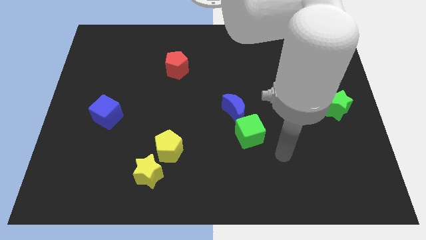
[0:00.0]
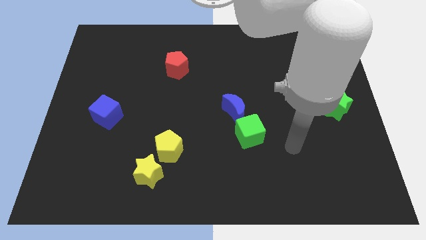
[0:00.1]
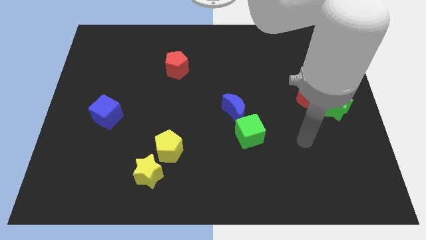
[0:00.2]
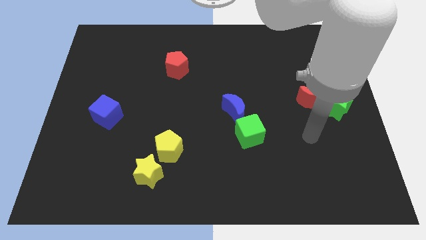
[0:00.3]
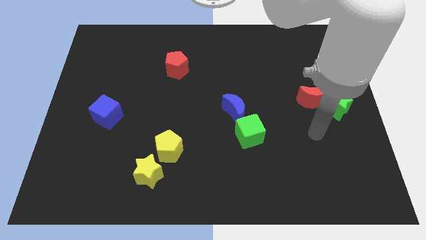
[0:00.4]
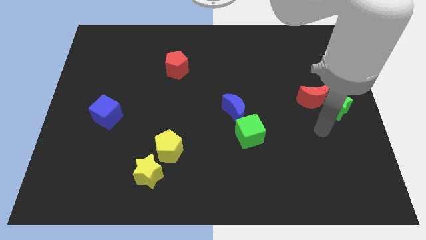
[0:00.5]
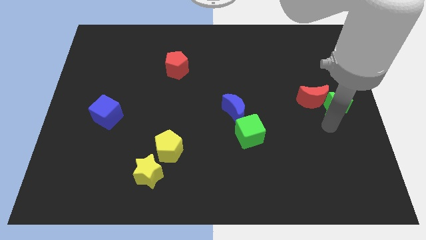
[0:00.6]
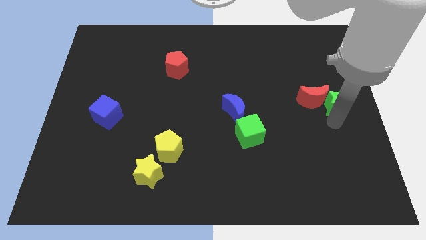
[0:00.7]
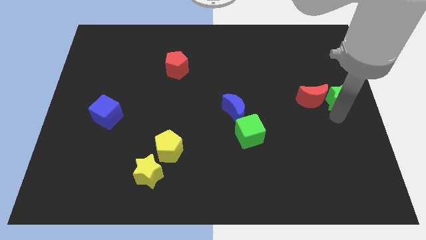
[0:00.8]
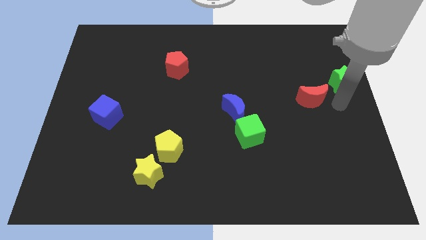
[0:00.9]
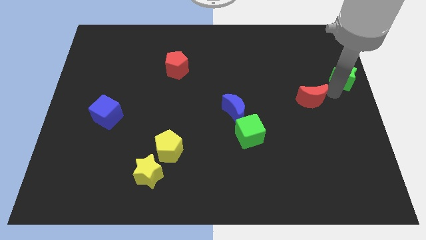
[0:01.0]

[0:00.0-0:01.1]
pull the red moon apart from the green star

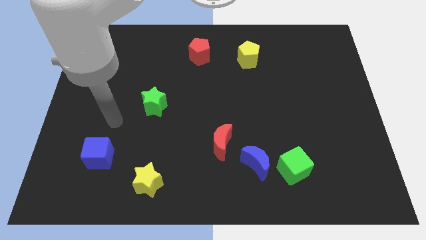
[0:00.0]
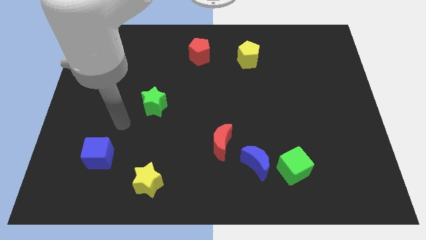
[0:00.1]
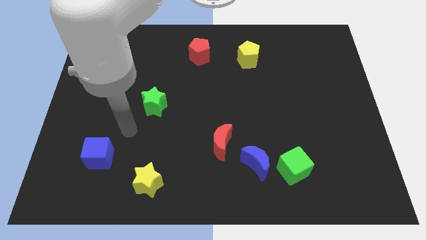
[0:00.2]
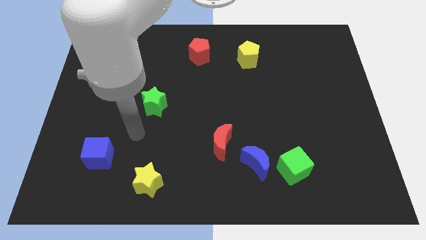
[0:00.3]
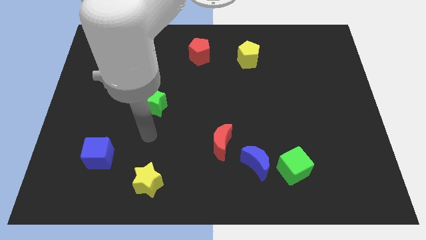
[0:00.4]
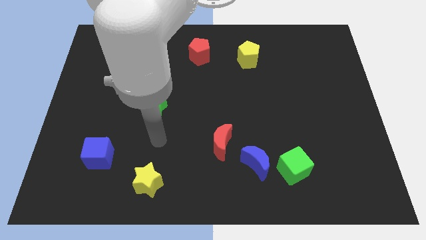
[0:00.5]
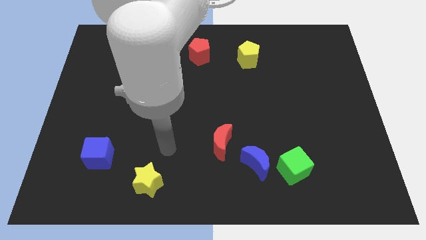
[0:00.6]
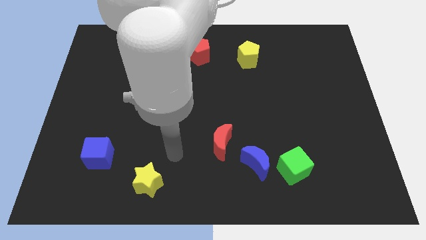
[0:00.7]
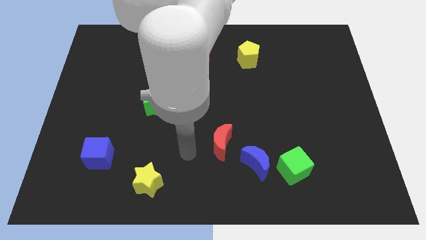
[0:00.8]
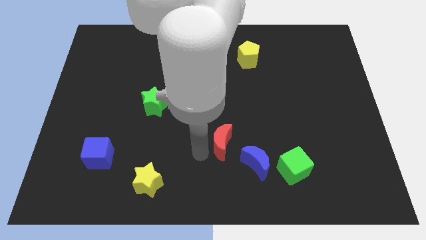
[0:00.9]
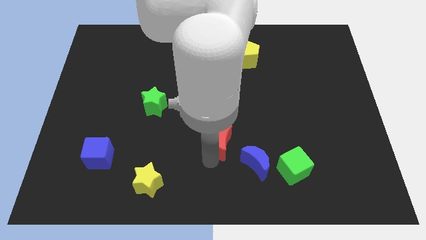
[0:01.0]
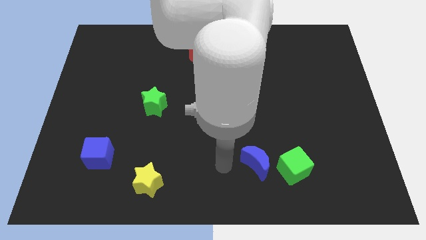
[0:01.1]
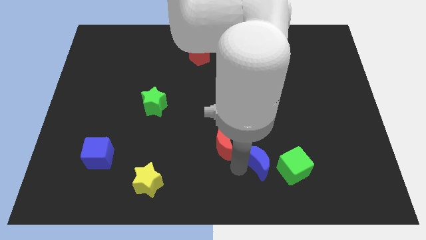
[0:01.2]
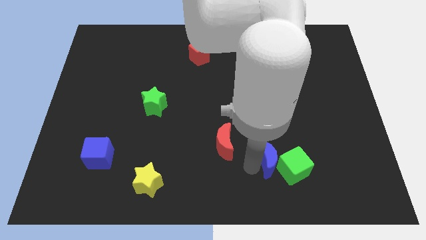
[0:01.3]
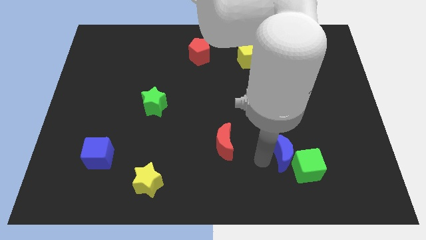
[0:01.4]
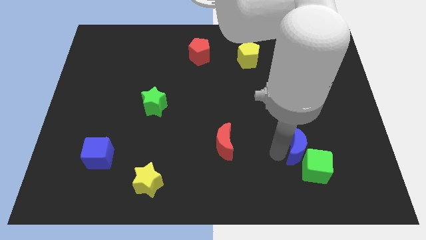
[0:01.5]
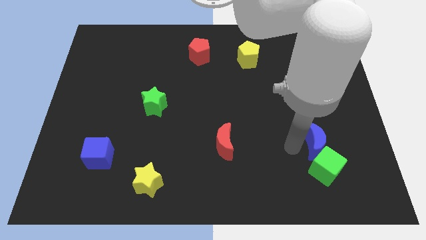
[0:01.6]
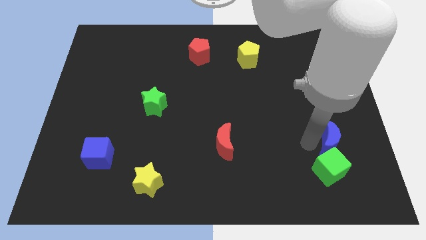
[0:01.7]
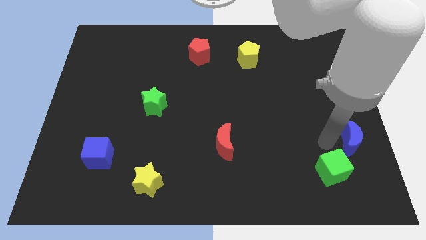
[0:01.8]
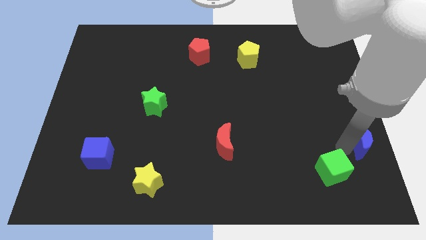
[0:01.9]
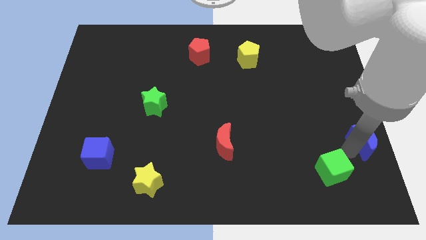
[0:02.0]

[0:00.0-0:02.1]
move the green cube away from the blue moon

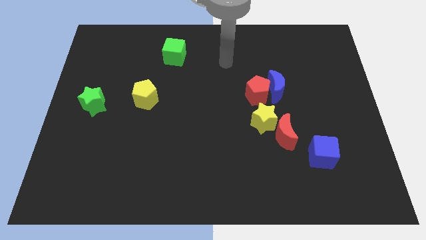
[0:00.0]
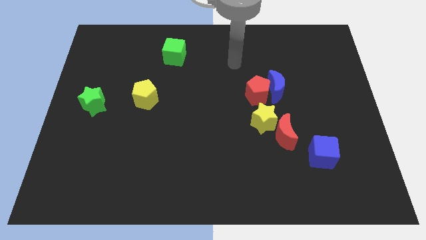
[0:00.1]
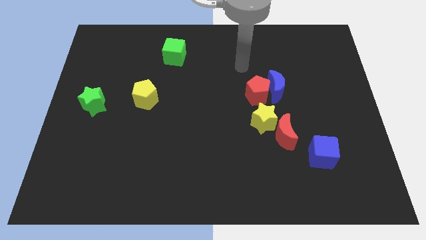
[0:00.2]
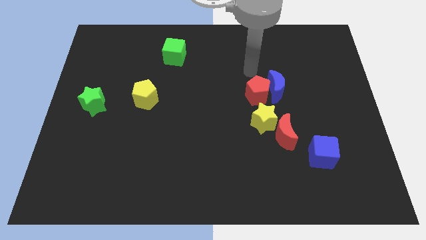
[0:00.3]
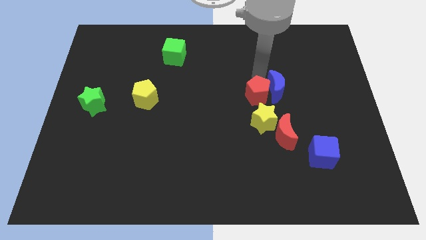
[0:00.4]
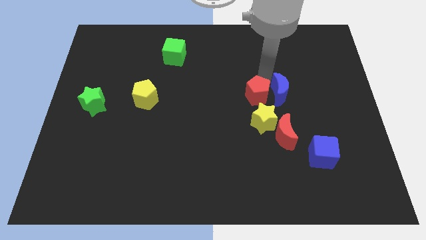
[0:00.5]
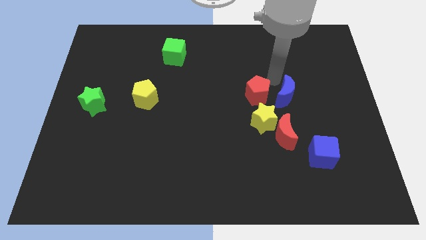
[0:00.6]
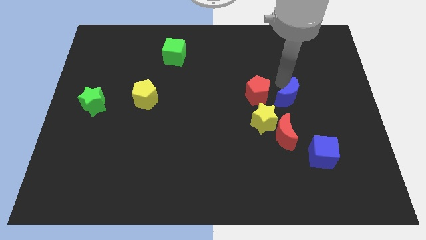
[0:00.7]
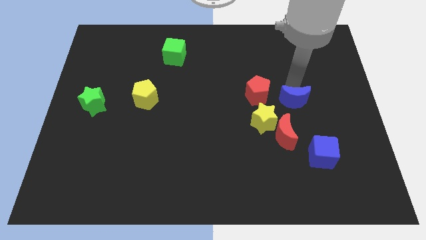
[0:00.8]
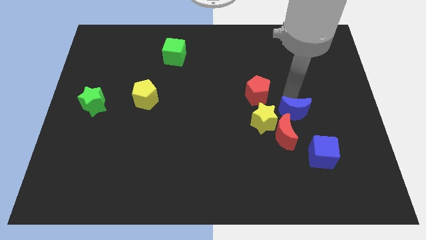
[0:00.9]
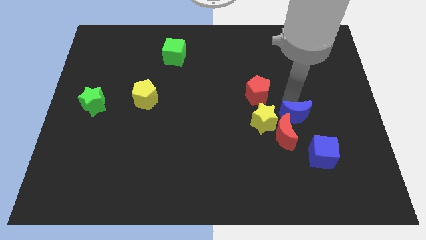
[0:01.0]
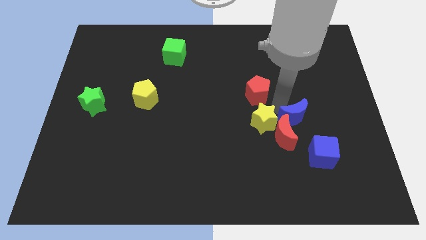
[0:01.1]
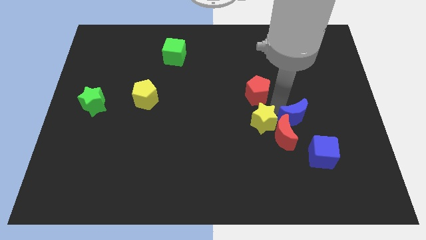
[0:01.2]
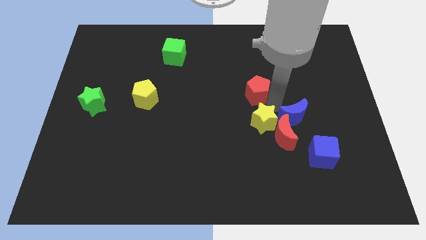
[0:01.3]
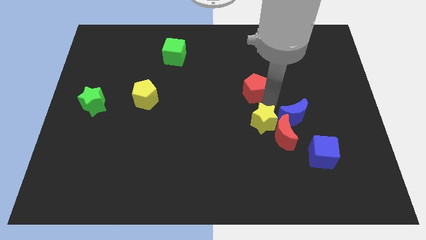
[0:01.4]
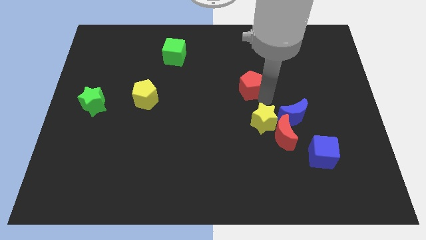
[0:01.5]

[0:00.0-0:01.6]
move the red pentagon away from the blue moon and yellow star

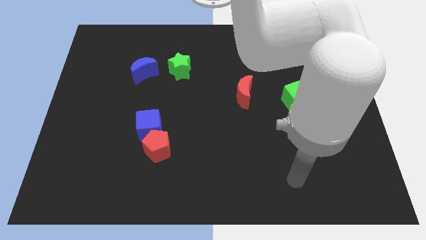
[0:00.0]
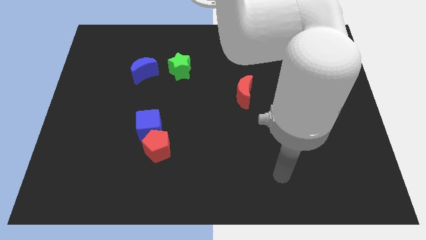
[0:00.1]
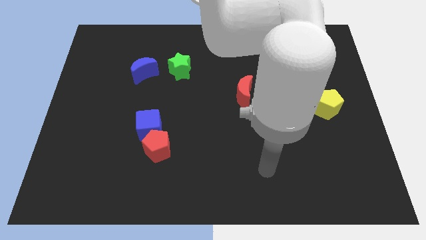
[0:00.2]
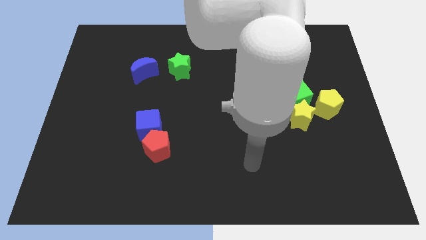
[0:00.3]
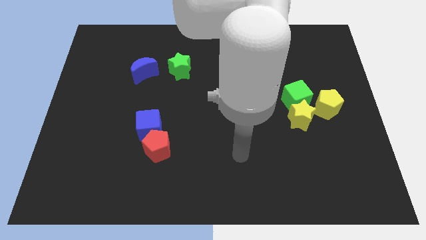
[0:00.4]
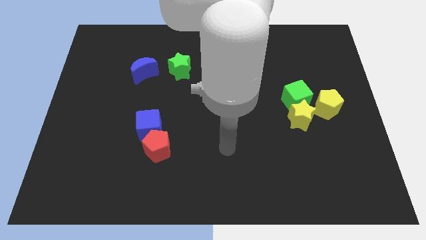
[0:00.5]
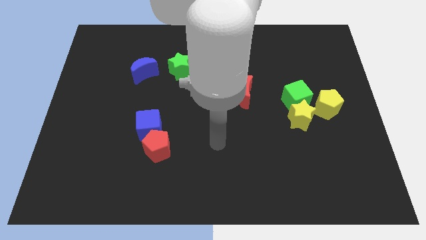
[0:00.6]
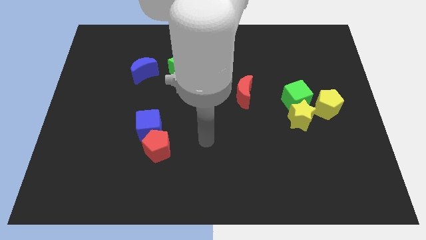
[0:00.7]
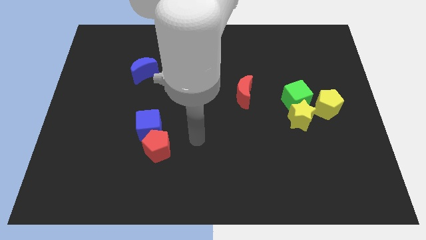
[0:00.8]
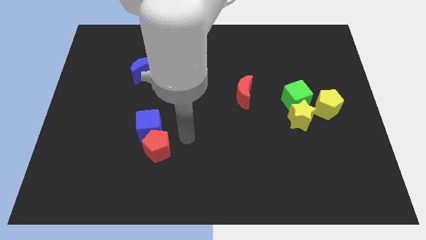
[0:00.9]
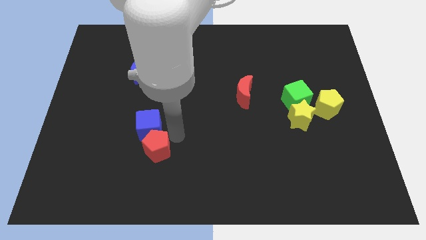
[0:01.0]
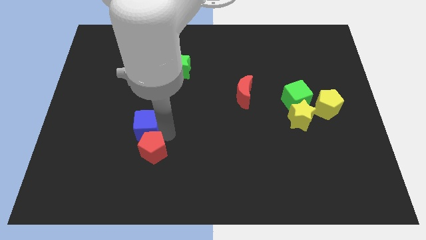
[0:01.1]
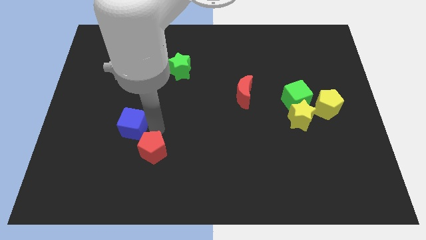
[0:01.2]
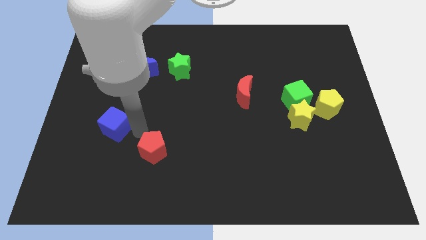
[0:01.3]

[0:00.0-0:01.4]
move the red pentagon away from the blue cube

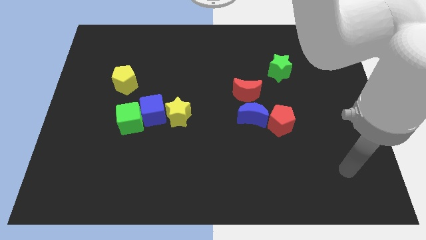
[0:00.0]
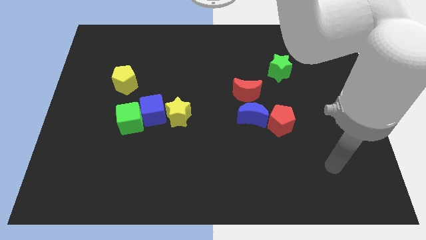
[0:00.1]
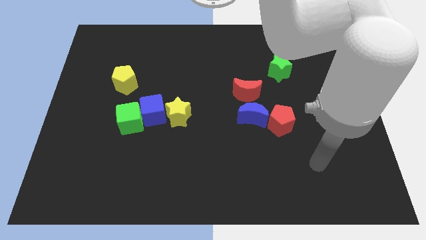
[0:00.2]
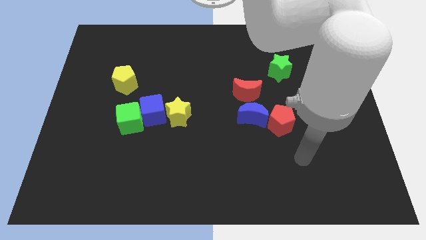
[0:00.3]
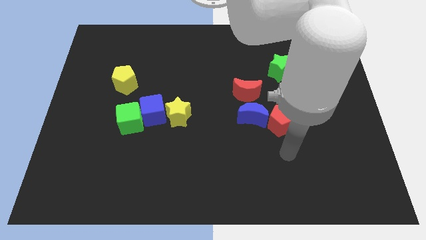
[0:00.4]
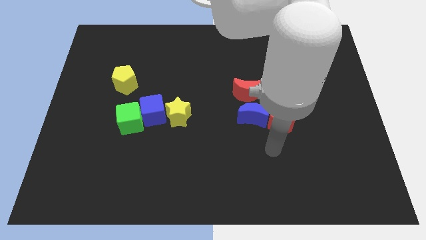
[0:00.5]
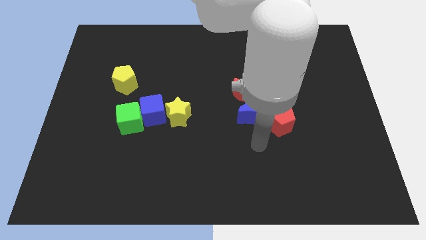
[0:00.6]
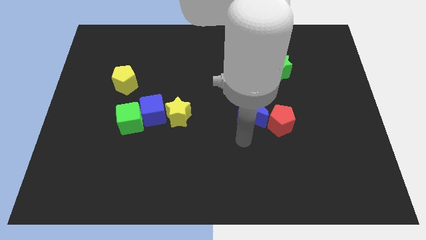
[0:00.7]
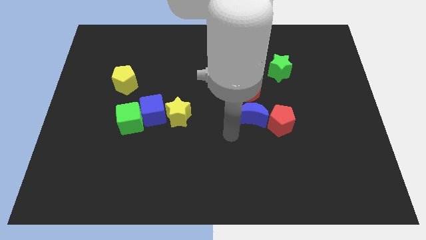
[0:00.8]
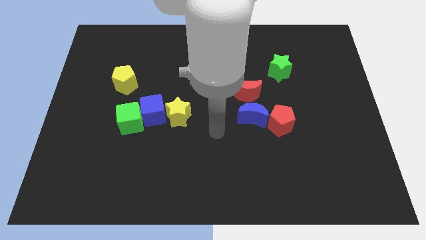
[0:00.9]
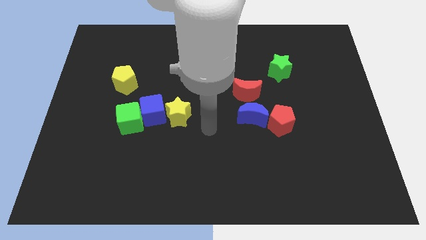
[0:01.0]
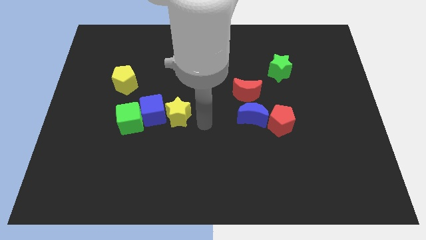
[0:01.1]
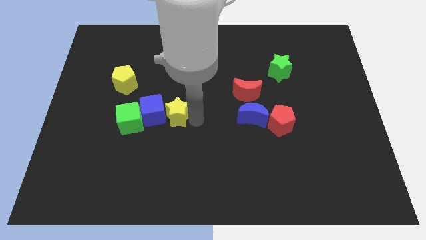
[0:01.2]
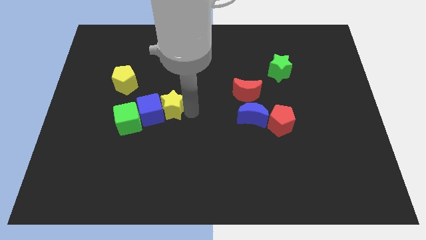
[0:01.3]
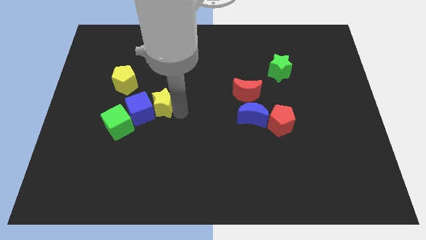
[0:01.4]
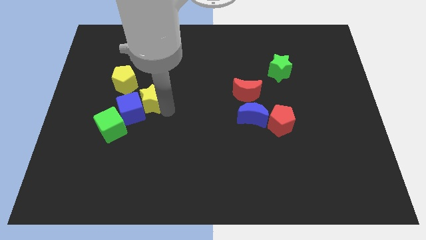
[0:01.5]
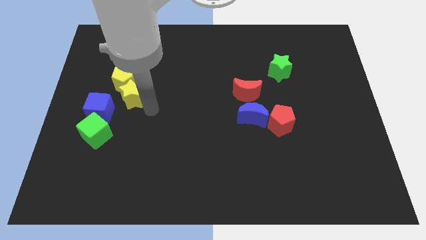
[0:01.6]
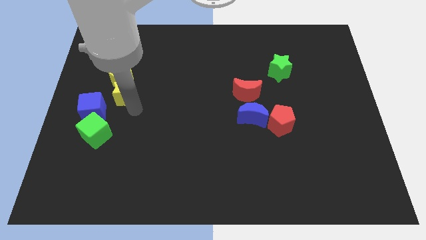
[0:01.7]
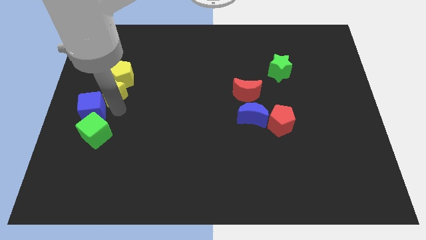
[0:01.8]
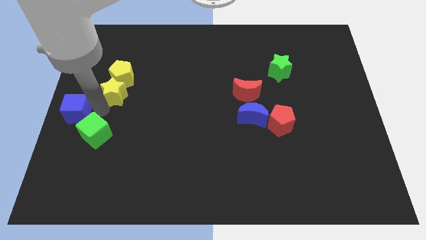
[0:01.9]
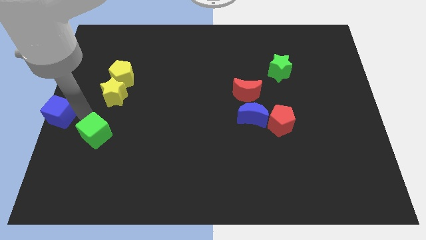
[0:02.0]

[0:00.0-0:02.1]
separate the green cube from the blue cube

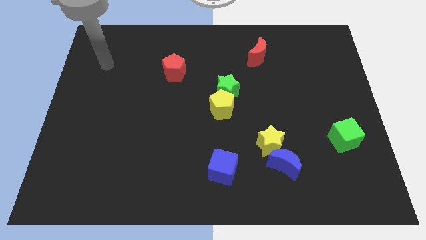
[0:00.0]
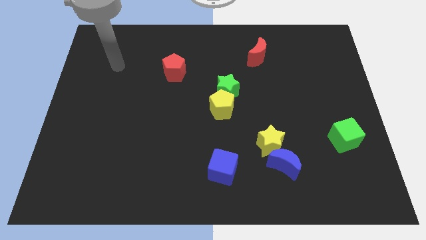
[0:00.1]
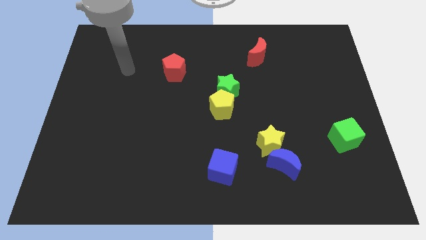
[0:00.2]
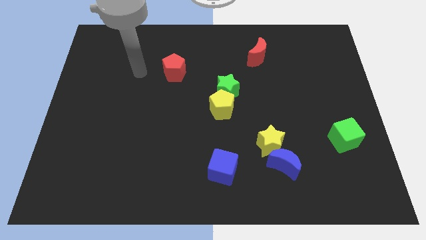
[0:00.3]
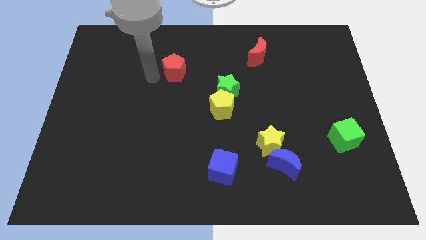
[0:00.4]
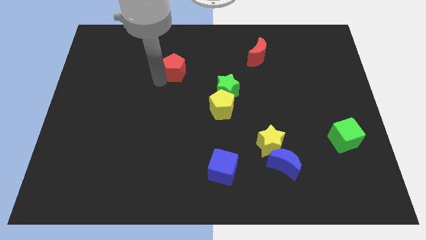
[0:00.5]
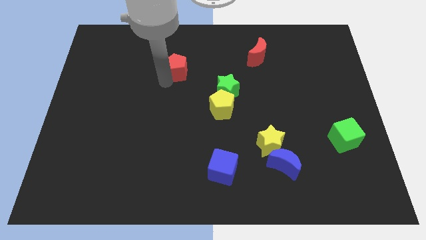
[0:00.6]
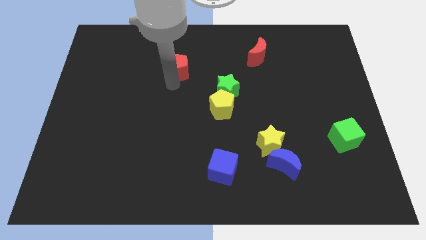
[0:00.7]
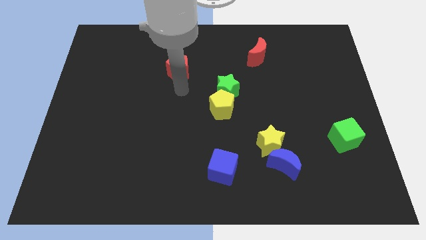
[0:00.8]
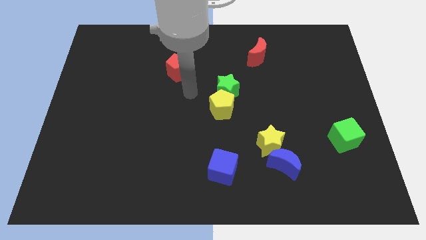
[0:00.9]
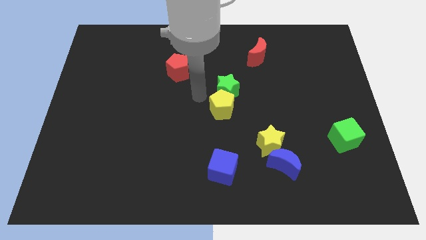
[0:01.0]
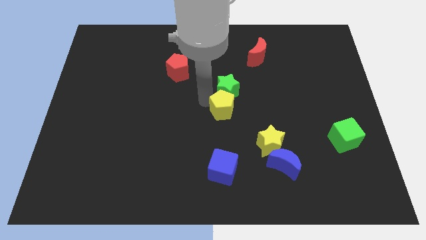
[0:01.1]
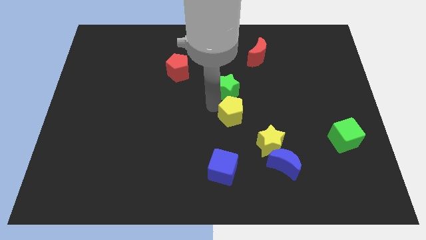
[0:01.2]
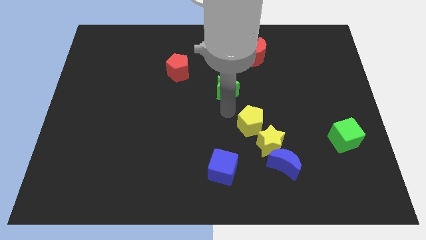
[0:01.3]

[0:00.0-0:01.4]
pull the green star apart from the yellow pentagon
